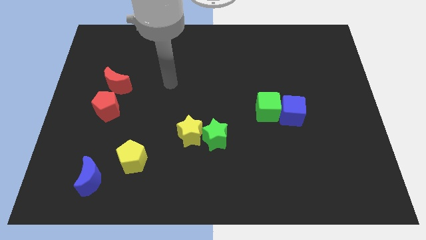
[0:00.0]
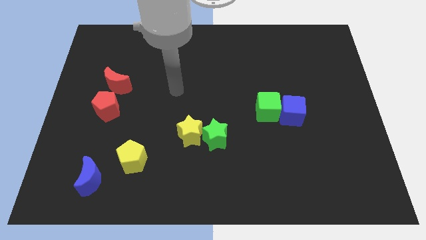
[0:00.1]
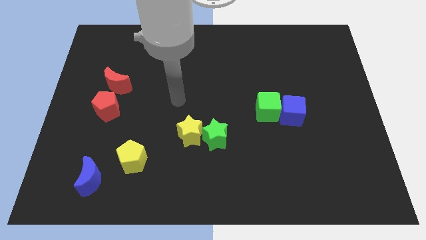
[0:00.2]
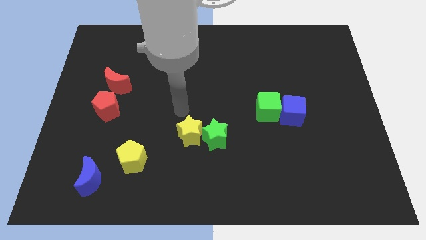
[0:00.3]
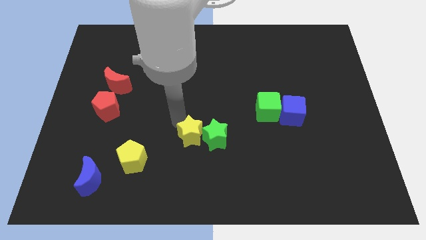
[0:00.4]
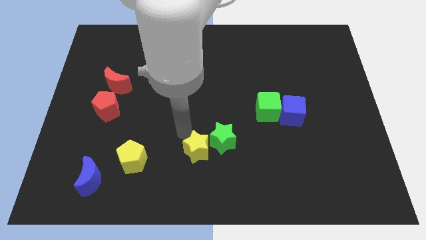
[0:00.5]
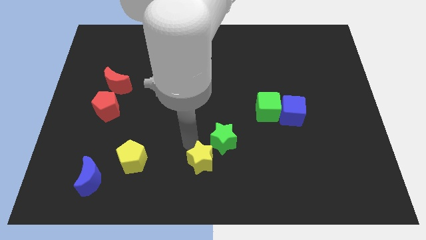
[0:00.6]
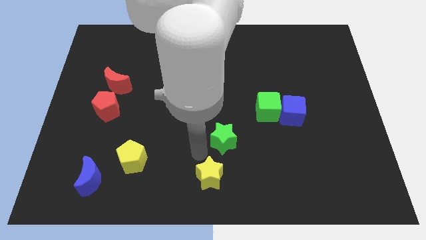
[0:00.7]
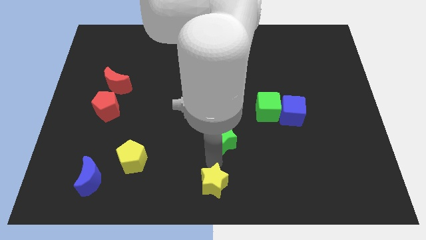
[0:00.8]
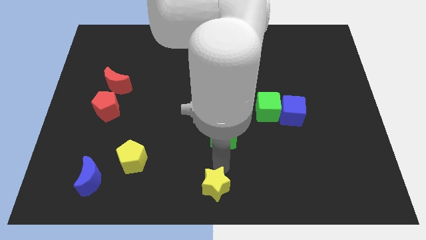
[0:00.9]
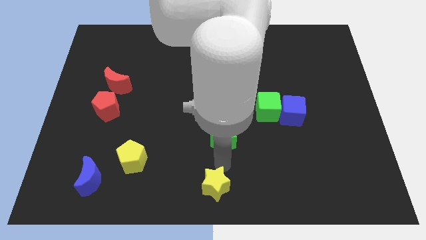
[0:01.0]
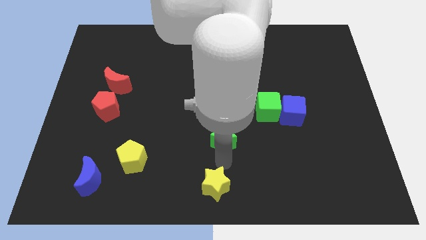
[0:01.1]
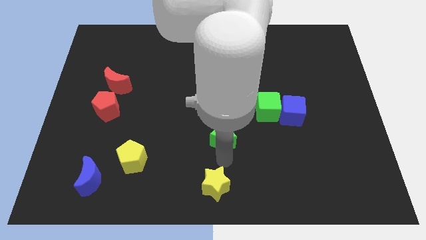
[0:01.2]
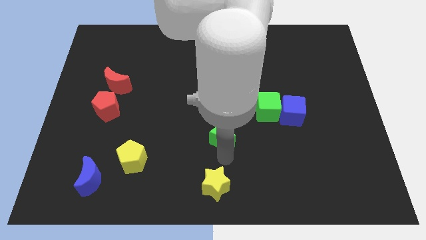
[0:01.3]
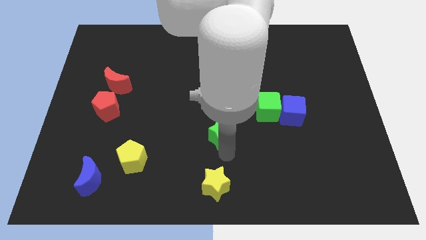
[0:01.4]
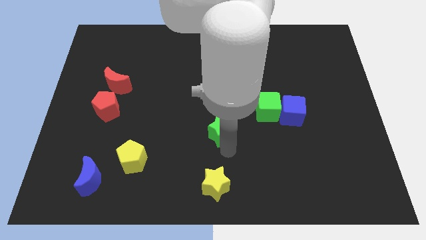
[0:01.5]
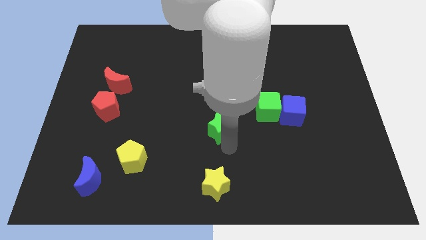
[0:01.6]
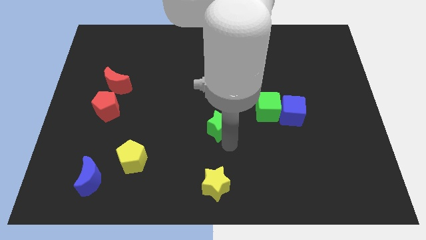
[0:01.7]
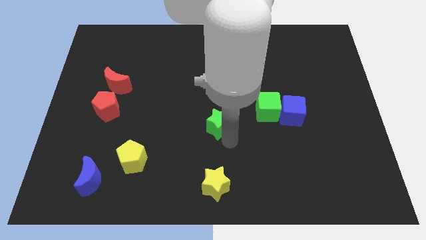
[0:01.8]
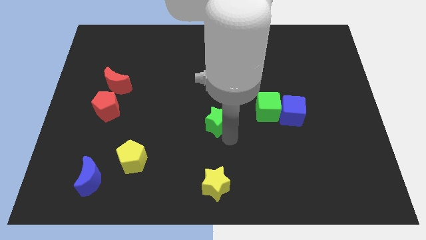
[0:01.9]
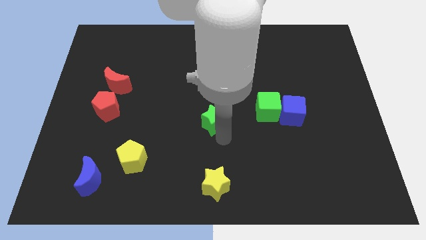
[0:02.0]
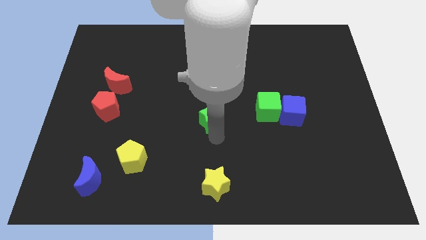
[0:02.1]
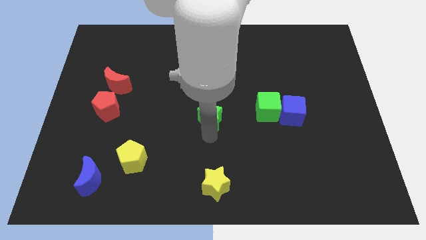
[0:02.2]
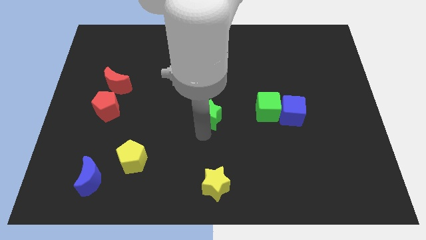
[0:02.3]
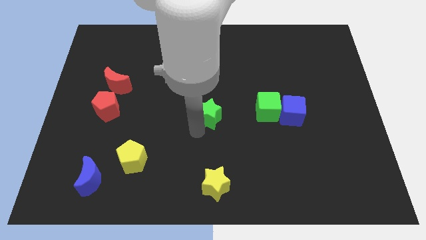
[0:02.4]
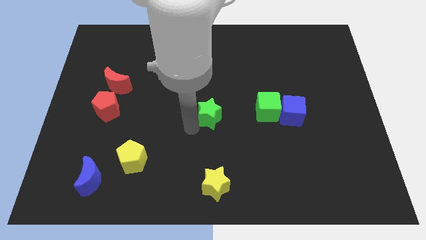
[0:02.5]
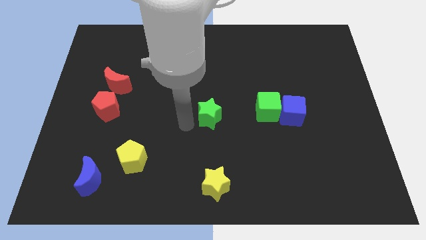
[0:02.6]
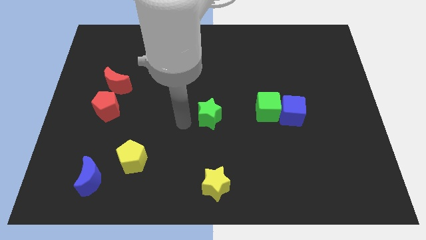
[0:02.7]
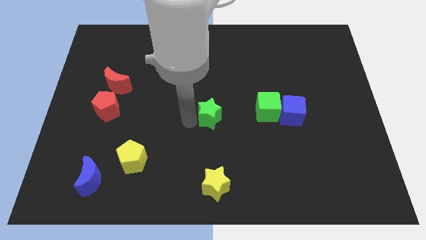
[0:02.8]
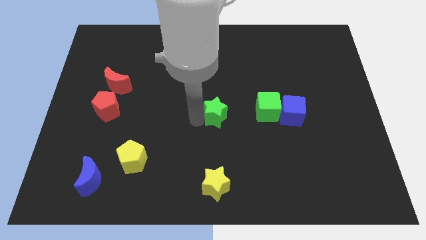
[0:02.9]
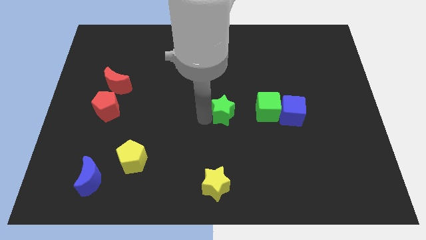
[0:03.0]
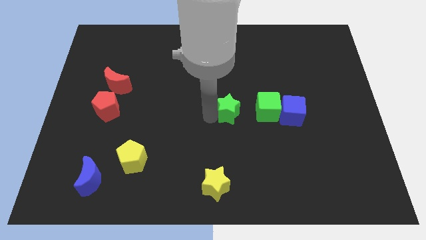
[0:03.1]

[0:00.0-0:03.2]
slide the green star up and right diagonally a bit

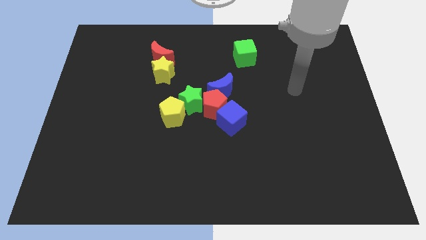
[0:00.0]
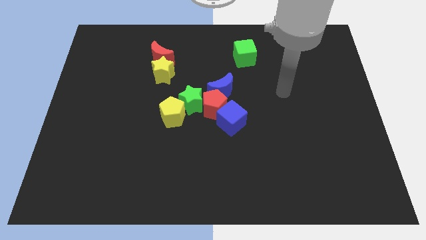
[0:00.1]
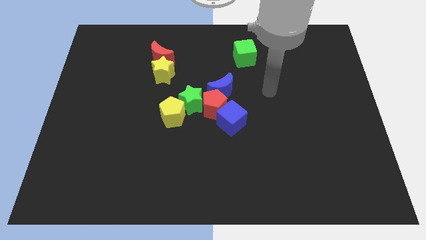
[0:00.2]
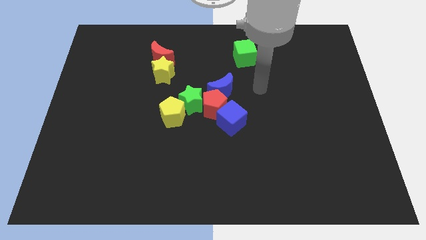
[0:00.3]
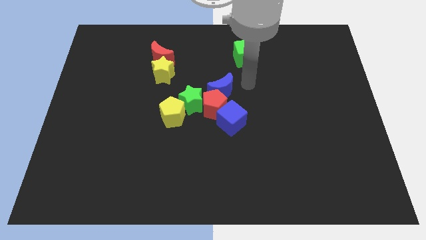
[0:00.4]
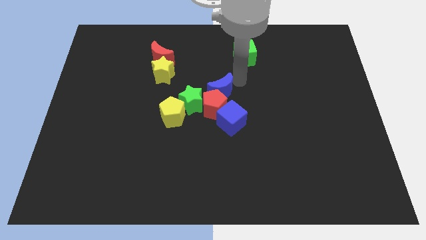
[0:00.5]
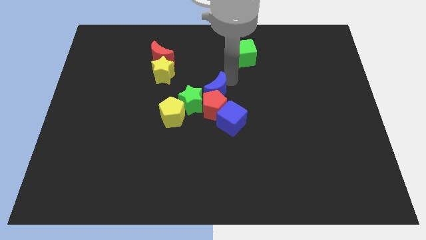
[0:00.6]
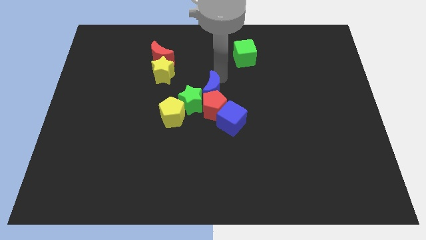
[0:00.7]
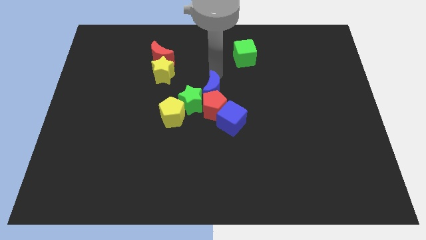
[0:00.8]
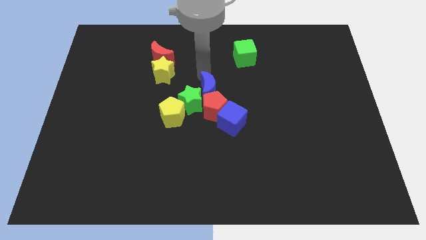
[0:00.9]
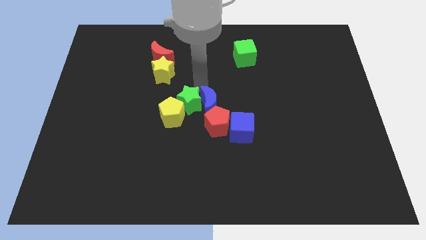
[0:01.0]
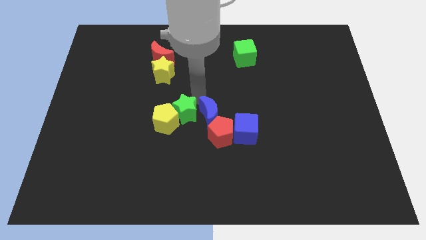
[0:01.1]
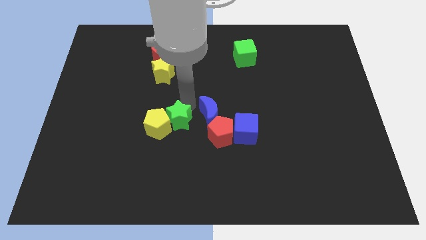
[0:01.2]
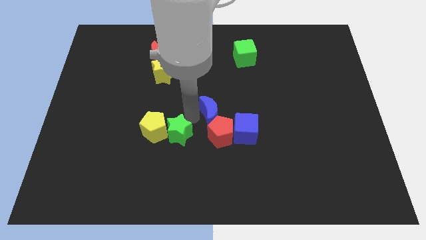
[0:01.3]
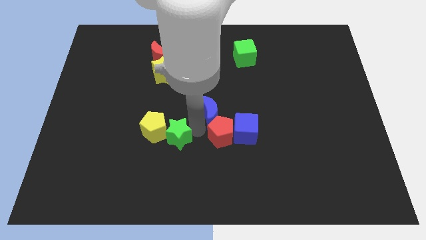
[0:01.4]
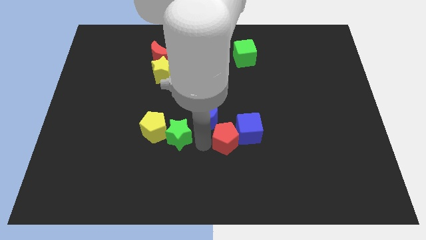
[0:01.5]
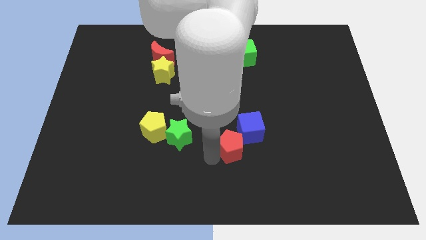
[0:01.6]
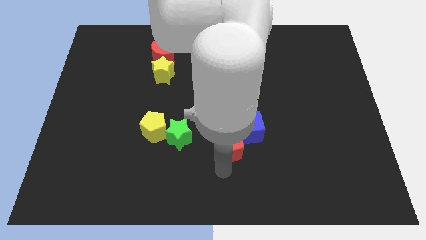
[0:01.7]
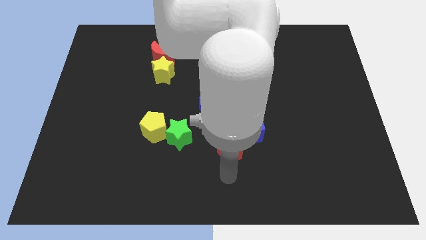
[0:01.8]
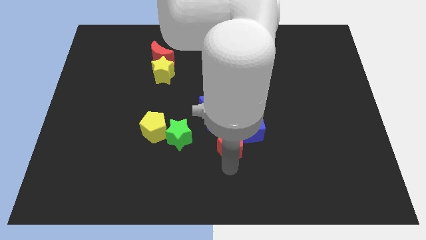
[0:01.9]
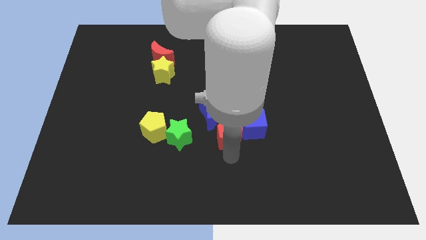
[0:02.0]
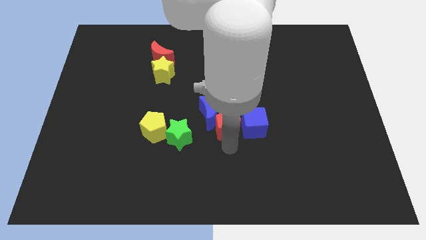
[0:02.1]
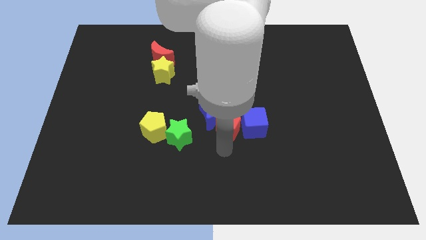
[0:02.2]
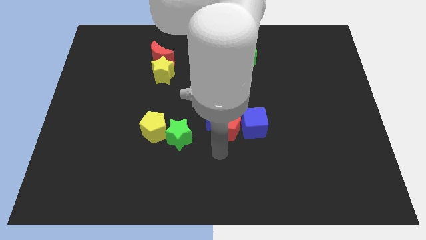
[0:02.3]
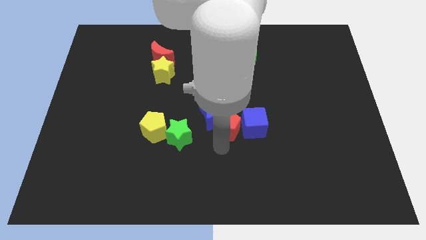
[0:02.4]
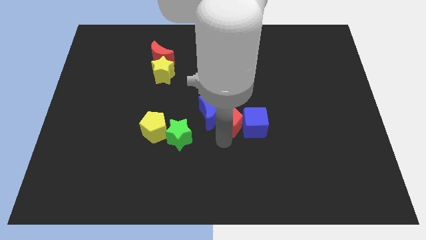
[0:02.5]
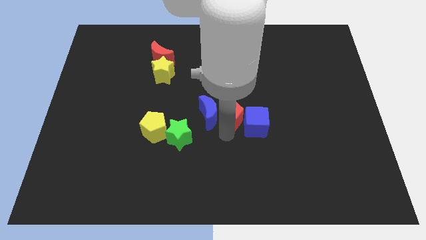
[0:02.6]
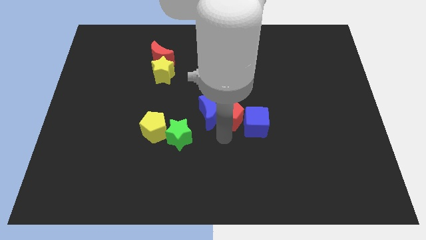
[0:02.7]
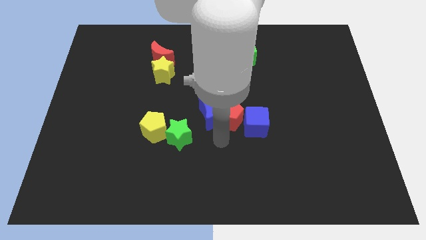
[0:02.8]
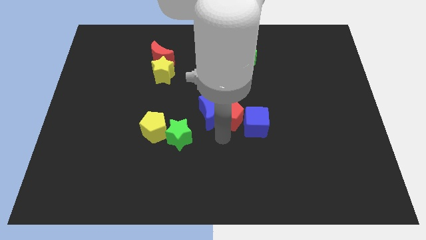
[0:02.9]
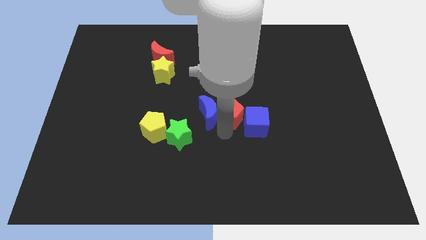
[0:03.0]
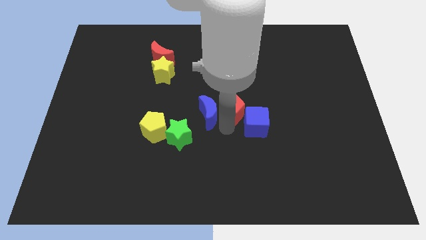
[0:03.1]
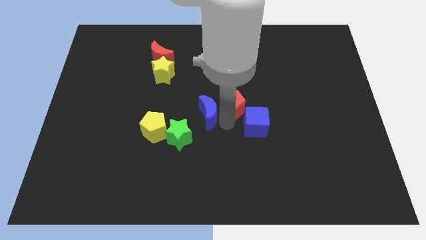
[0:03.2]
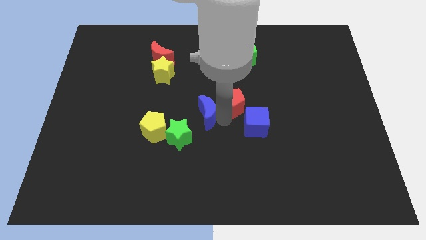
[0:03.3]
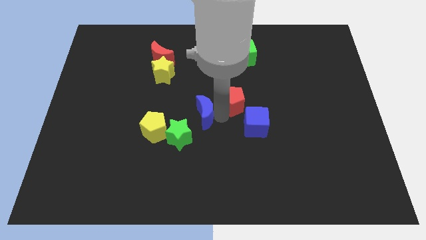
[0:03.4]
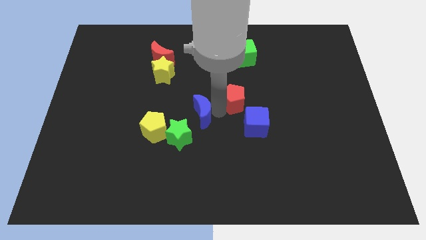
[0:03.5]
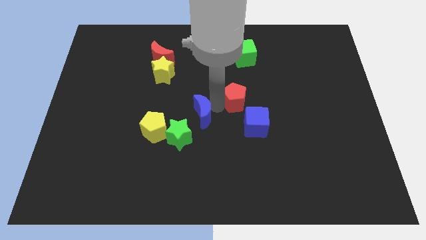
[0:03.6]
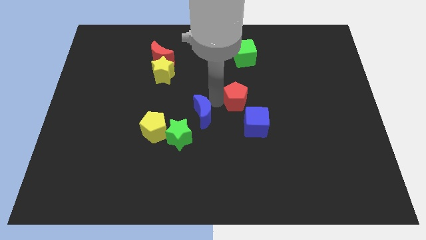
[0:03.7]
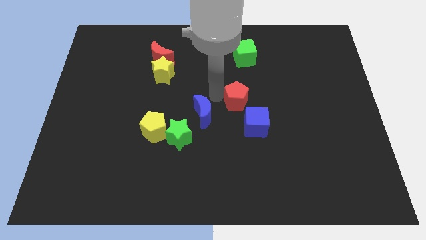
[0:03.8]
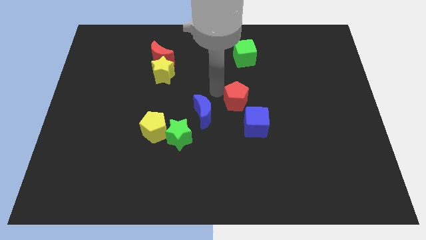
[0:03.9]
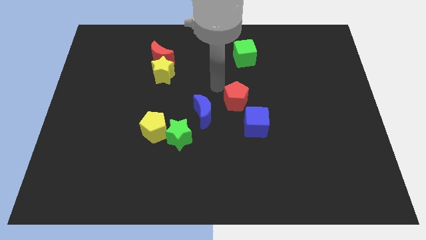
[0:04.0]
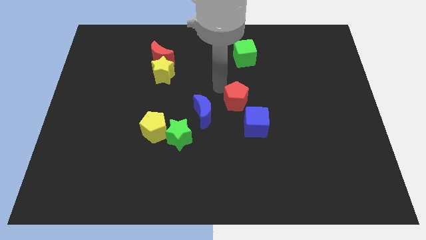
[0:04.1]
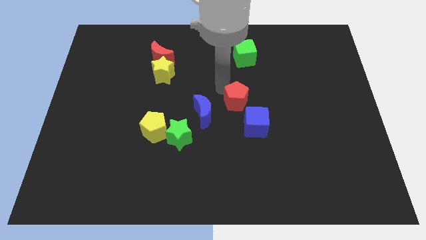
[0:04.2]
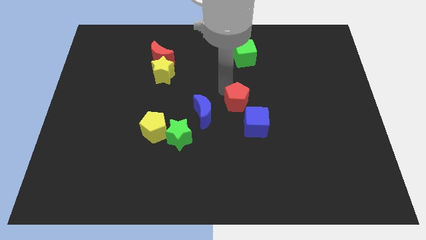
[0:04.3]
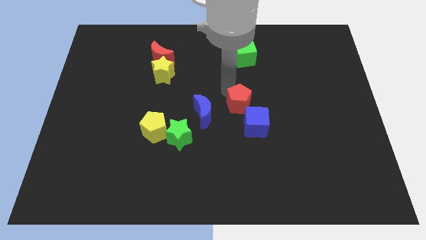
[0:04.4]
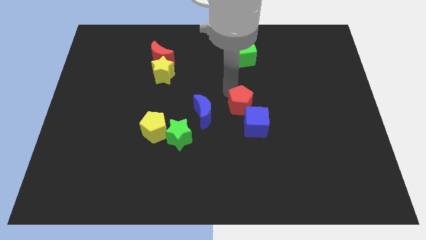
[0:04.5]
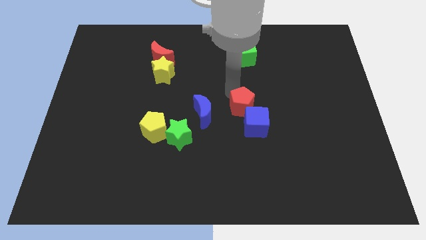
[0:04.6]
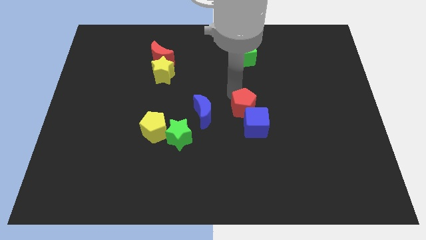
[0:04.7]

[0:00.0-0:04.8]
move the red pentagon a little bit right

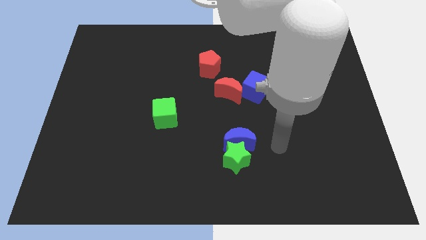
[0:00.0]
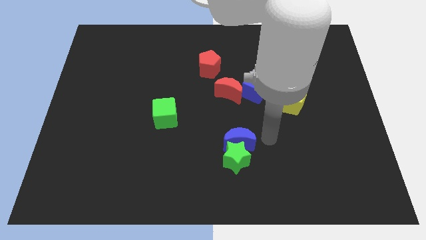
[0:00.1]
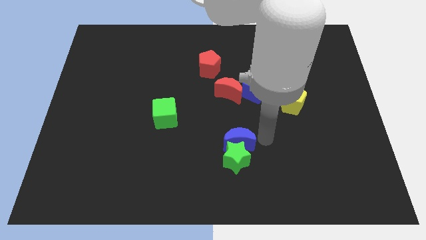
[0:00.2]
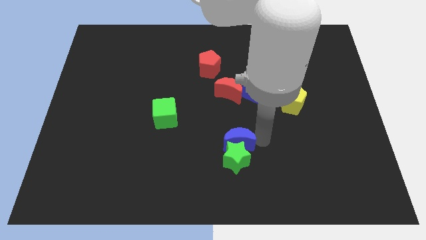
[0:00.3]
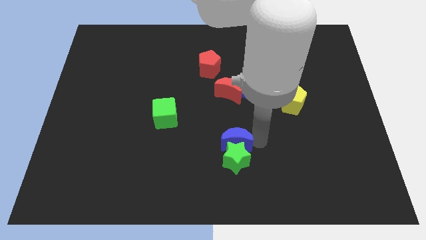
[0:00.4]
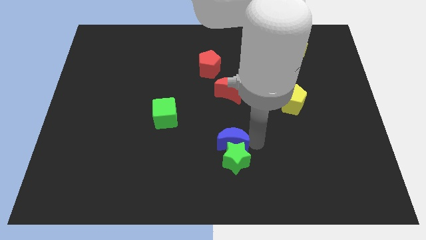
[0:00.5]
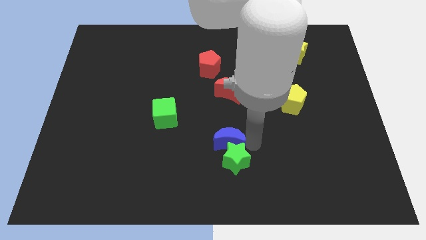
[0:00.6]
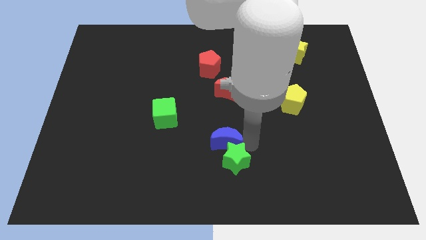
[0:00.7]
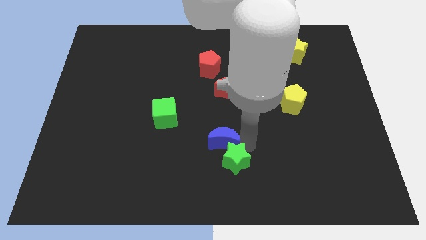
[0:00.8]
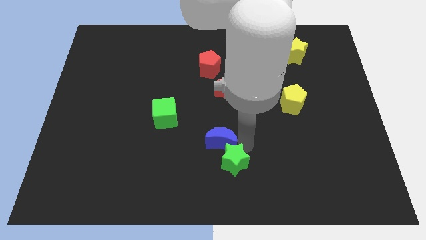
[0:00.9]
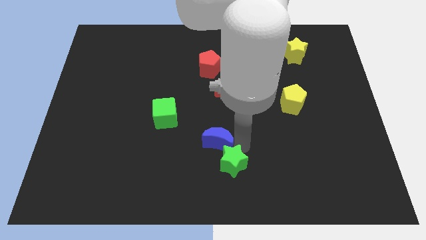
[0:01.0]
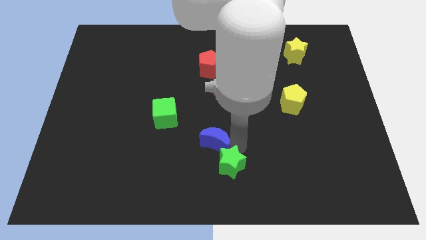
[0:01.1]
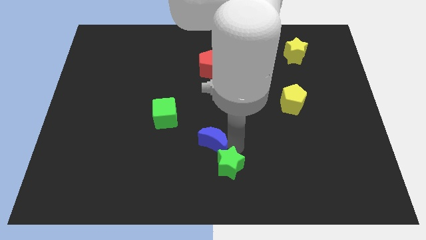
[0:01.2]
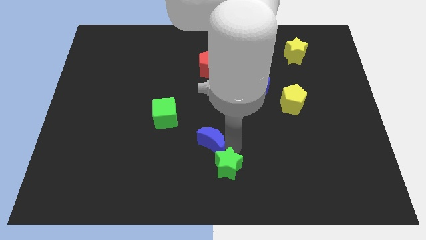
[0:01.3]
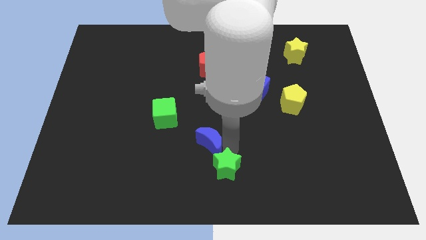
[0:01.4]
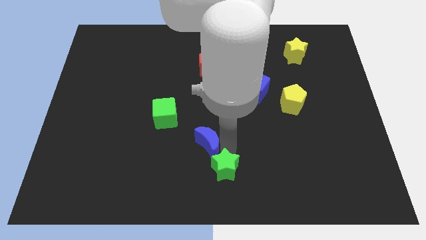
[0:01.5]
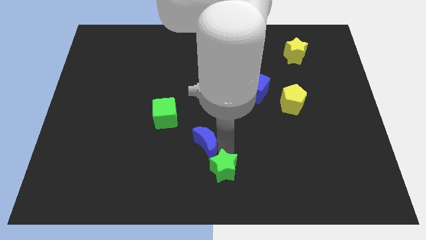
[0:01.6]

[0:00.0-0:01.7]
slightly move the blue moon to the left
